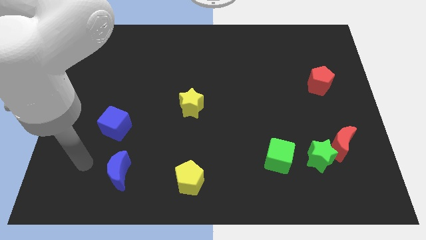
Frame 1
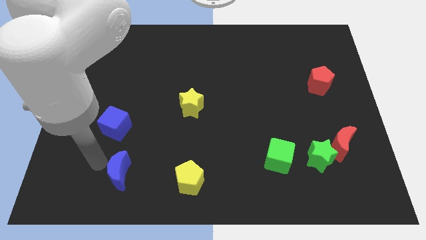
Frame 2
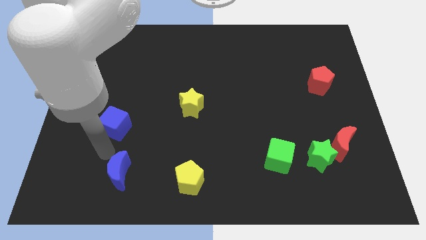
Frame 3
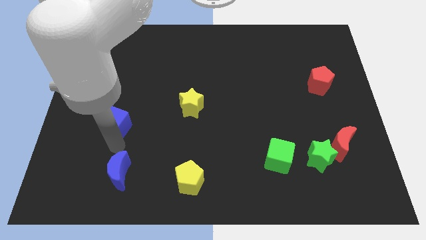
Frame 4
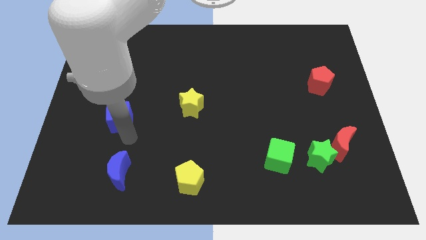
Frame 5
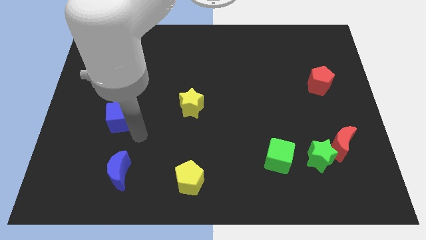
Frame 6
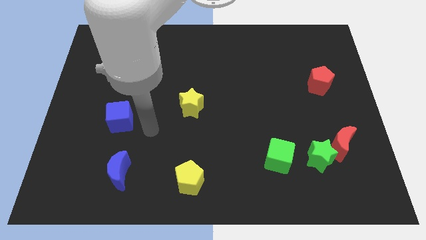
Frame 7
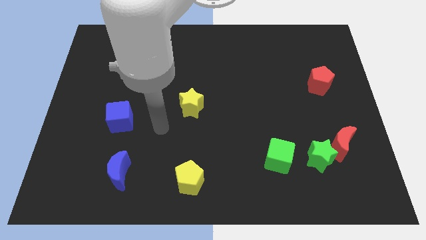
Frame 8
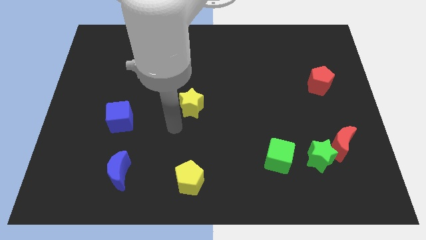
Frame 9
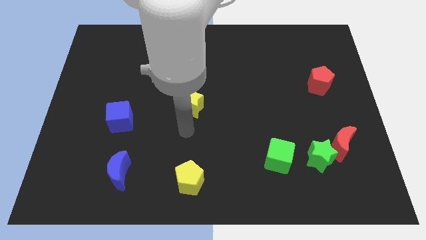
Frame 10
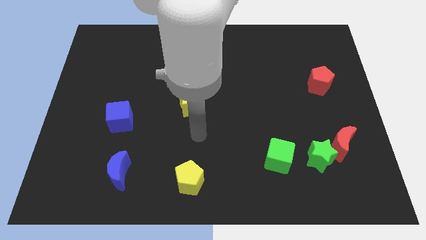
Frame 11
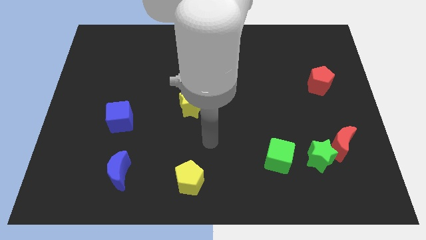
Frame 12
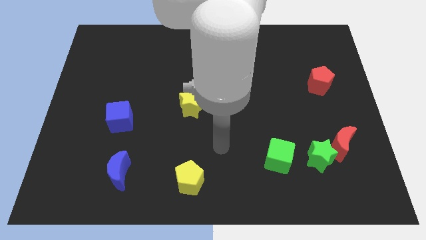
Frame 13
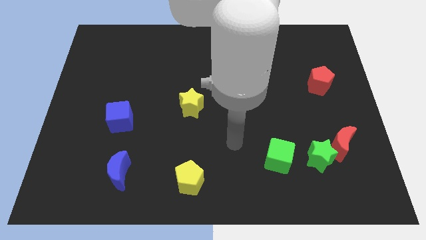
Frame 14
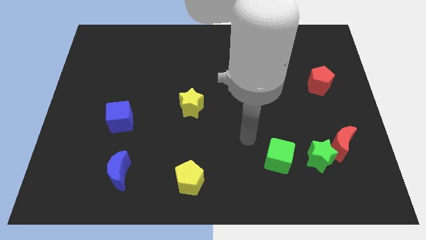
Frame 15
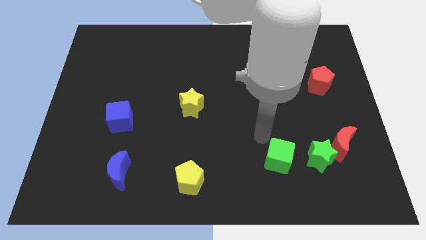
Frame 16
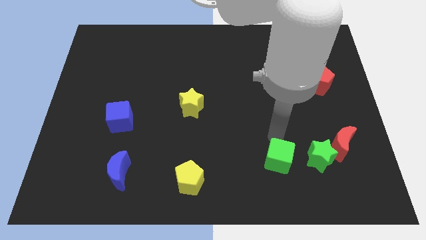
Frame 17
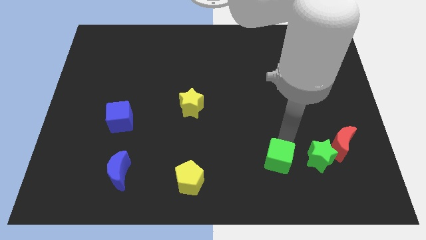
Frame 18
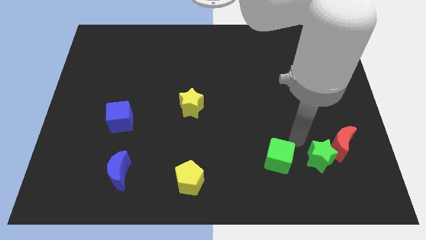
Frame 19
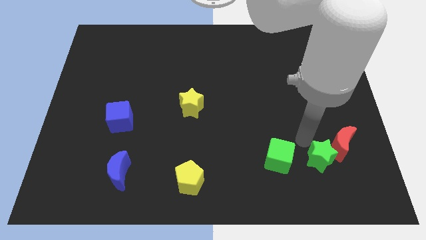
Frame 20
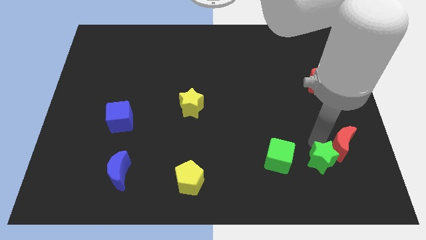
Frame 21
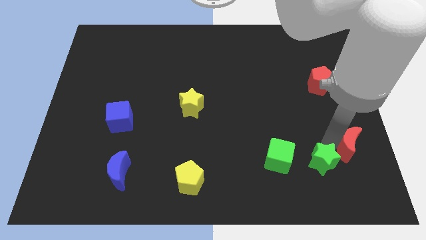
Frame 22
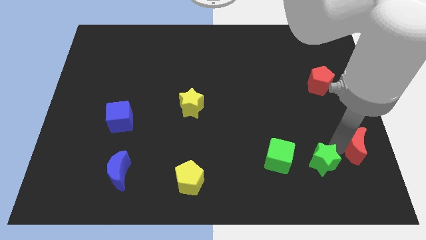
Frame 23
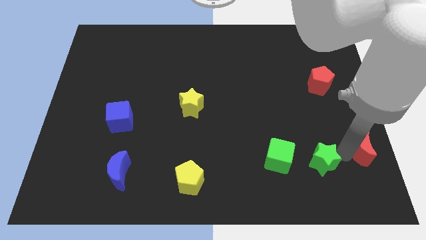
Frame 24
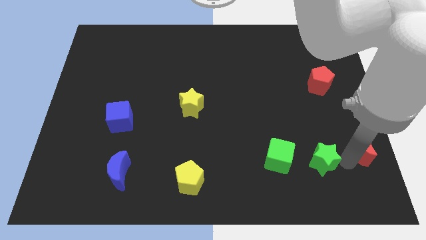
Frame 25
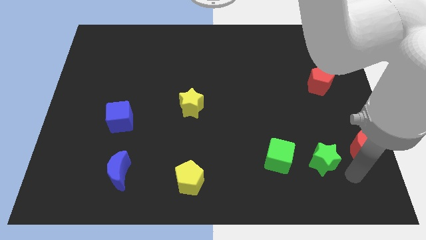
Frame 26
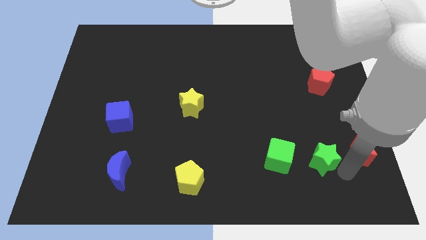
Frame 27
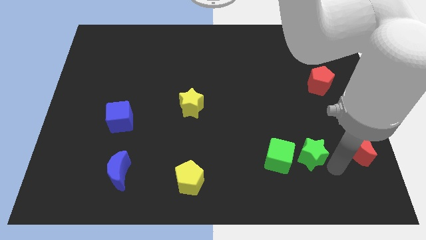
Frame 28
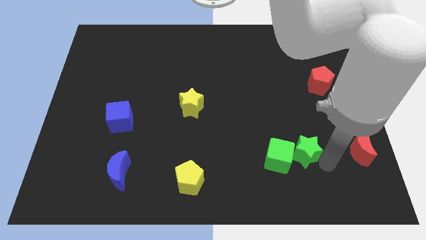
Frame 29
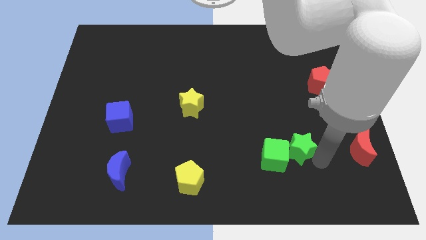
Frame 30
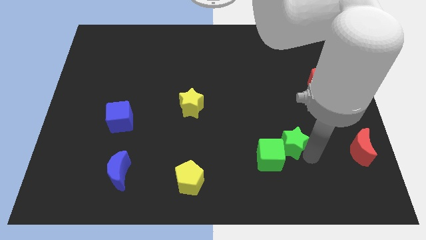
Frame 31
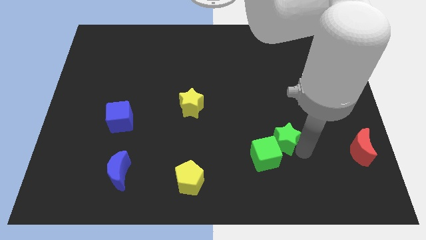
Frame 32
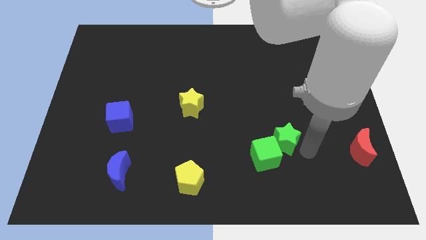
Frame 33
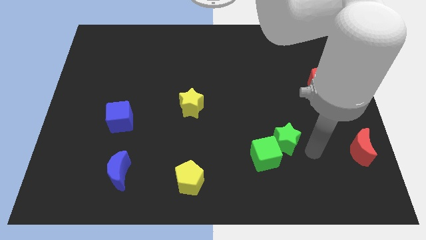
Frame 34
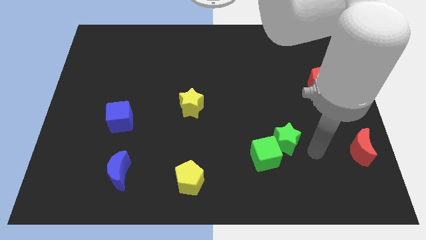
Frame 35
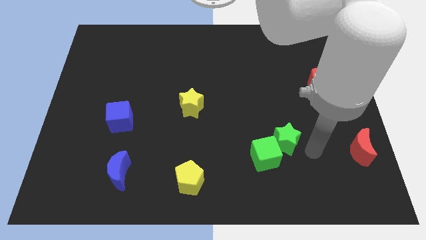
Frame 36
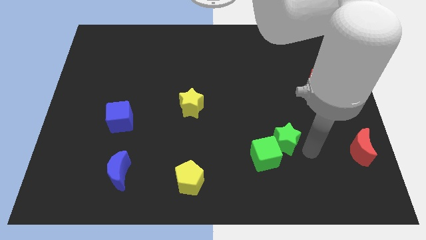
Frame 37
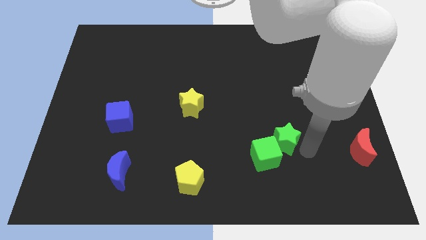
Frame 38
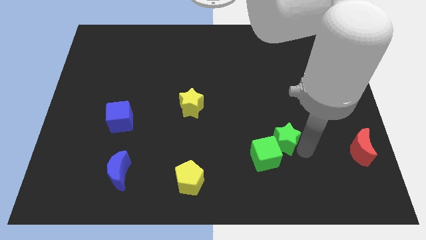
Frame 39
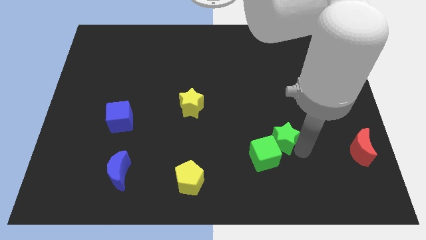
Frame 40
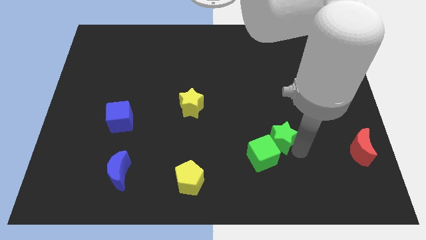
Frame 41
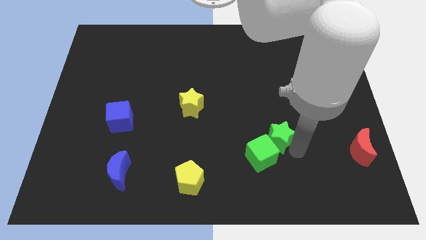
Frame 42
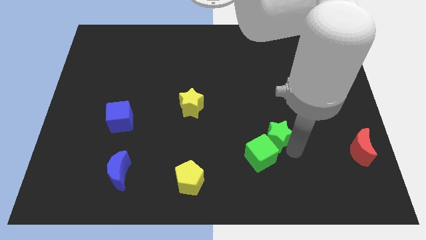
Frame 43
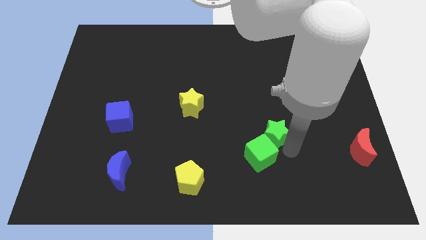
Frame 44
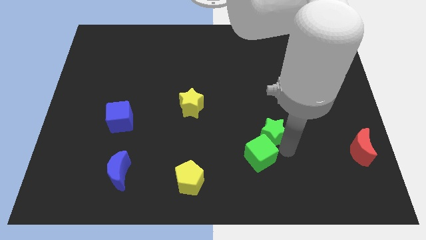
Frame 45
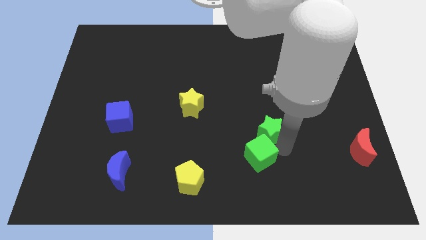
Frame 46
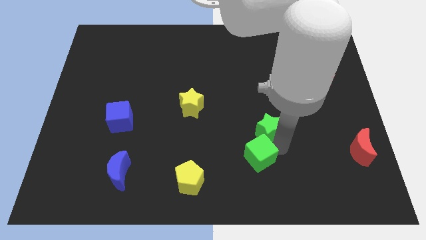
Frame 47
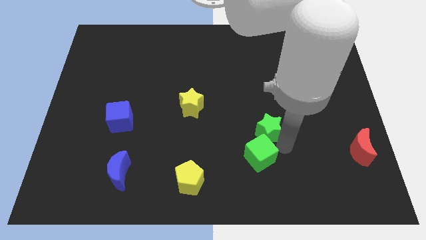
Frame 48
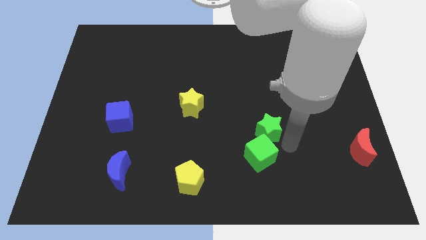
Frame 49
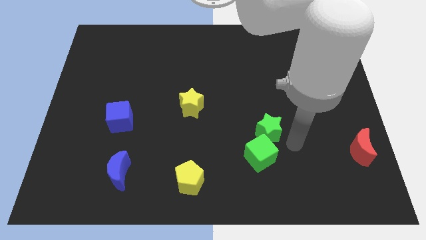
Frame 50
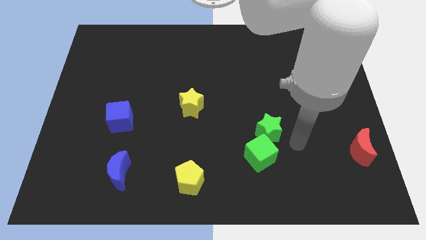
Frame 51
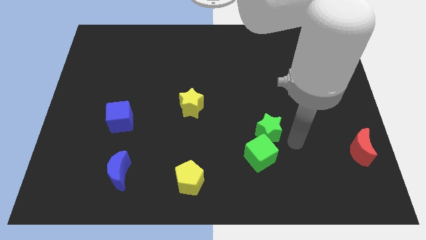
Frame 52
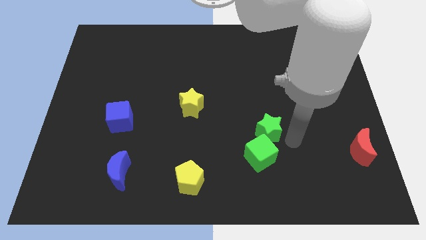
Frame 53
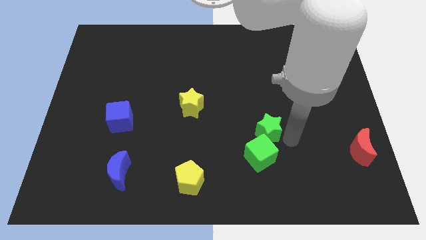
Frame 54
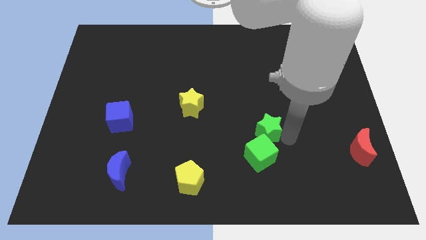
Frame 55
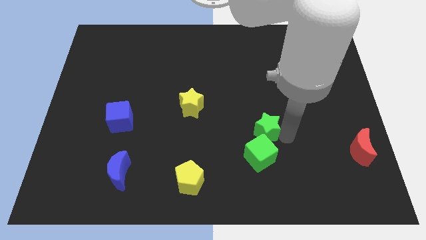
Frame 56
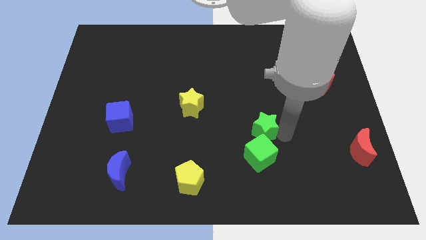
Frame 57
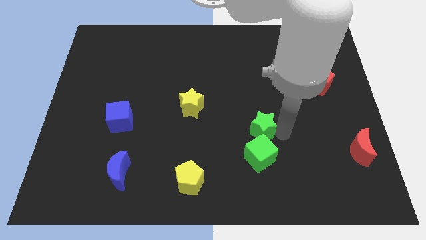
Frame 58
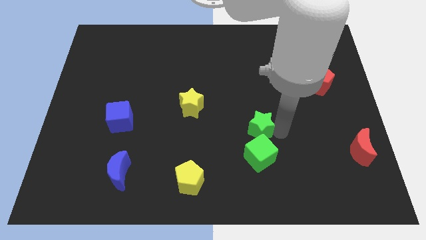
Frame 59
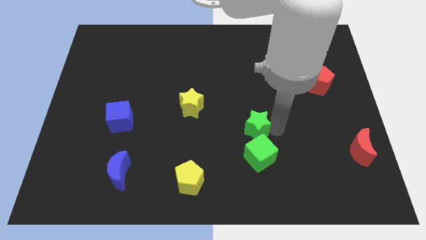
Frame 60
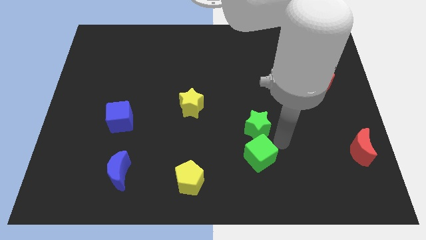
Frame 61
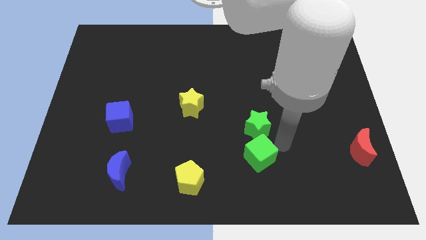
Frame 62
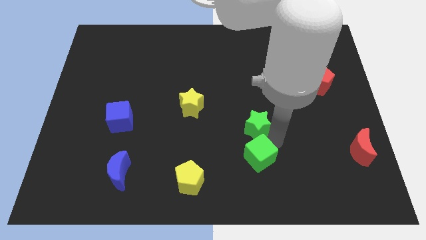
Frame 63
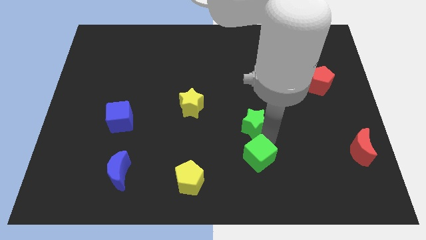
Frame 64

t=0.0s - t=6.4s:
slide the green star to the center of the board
